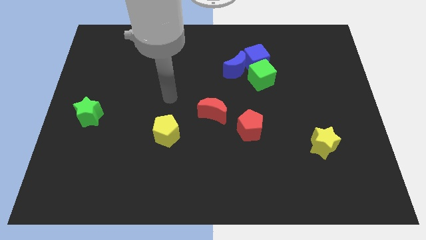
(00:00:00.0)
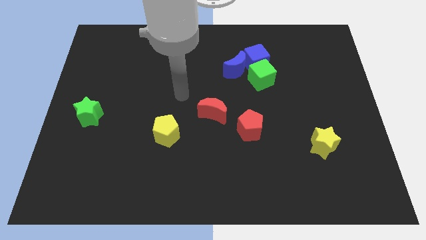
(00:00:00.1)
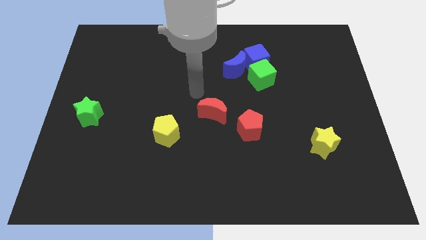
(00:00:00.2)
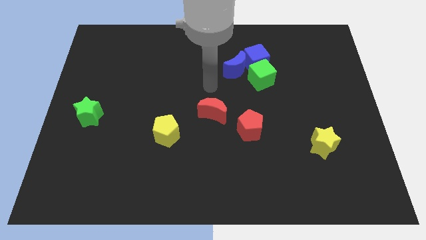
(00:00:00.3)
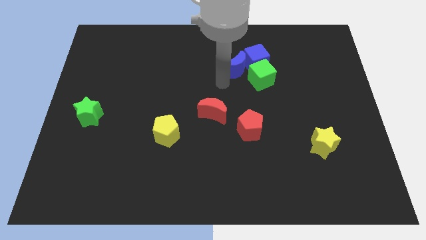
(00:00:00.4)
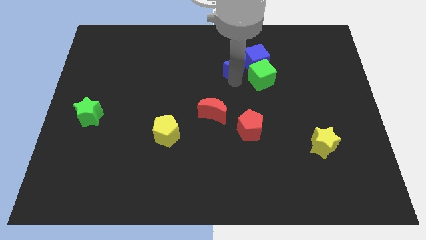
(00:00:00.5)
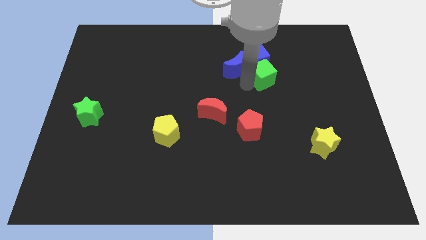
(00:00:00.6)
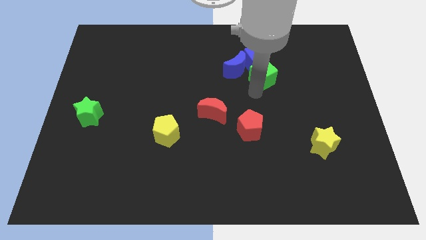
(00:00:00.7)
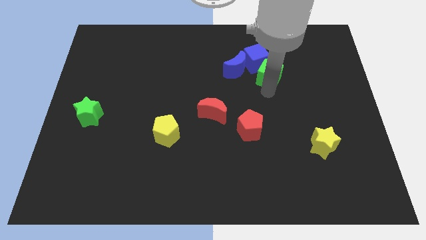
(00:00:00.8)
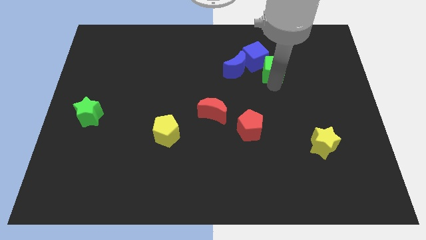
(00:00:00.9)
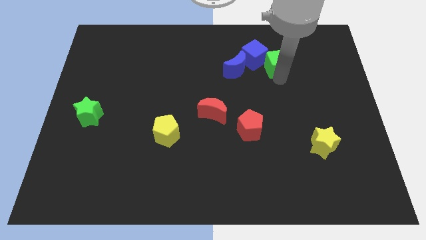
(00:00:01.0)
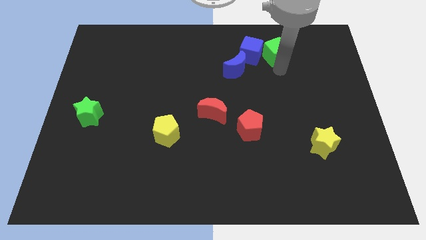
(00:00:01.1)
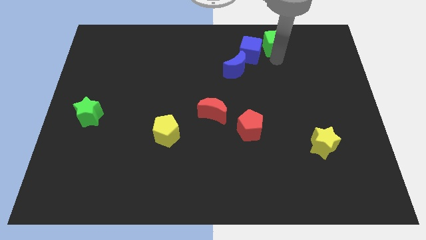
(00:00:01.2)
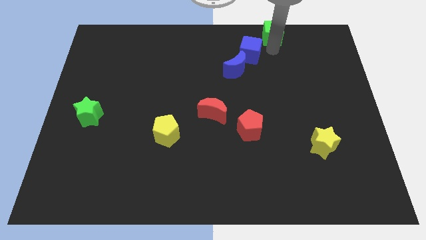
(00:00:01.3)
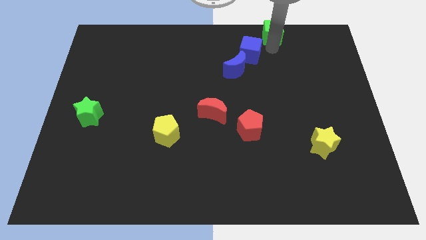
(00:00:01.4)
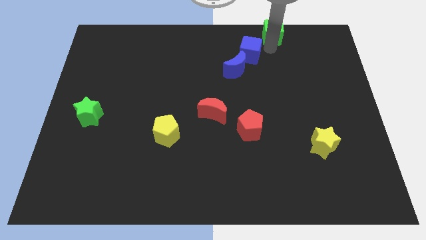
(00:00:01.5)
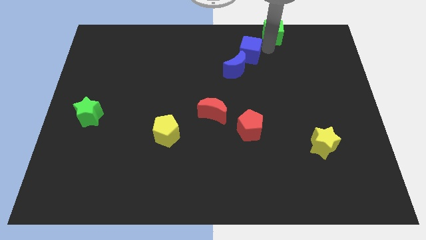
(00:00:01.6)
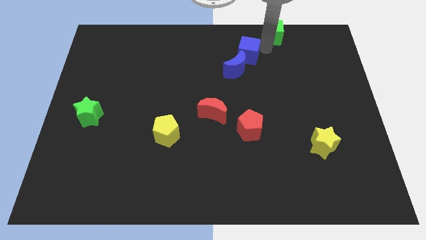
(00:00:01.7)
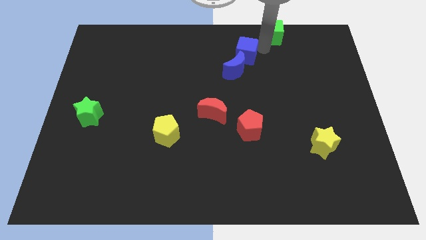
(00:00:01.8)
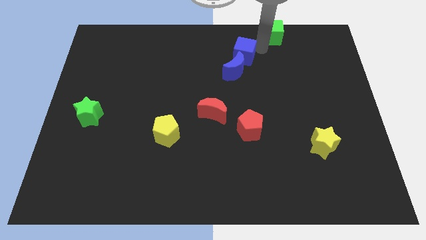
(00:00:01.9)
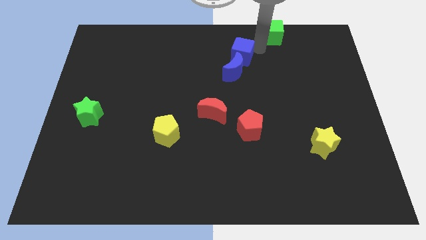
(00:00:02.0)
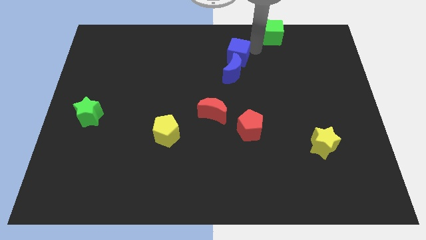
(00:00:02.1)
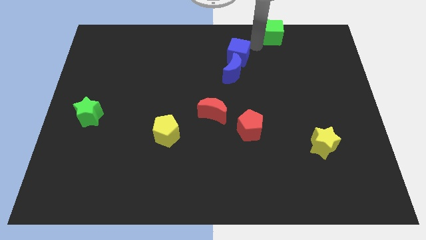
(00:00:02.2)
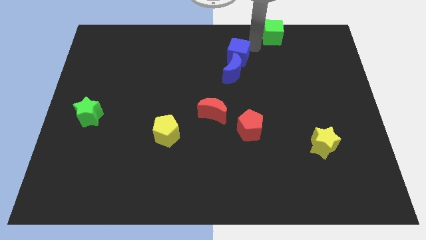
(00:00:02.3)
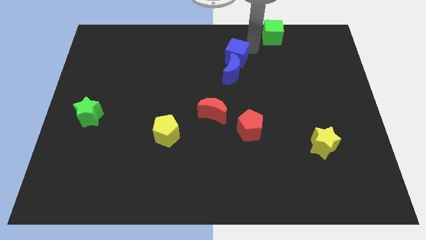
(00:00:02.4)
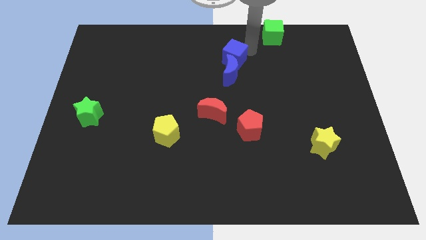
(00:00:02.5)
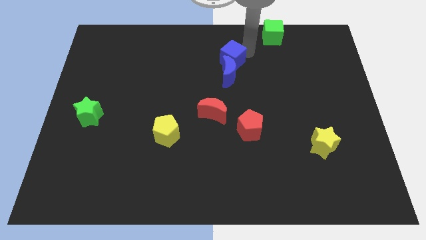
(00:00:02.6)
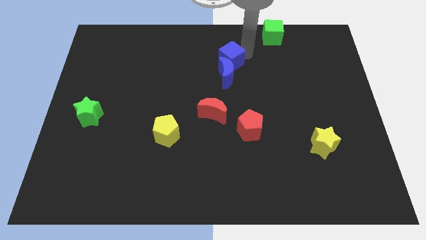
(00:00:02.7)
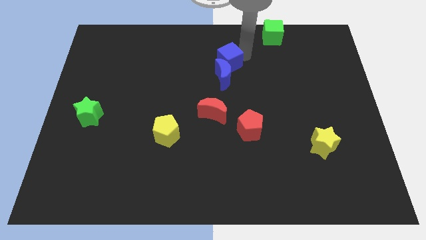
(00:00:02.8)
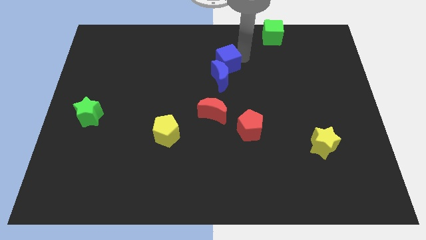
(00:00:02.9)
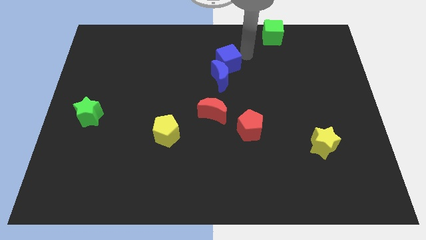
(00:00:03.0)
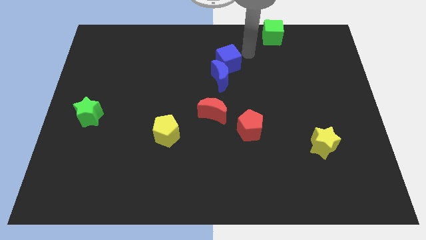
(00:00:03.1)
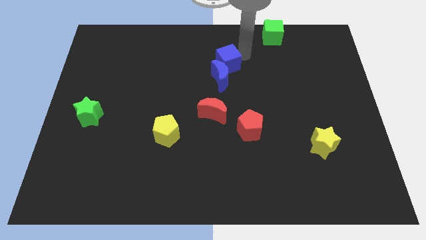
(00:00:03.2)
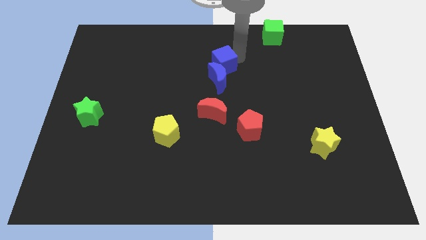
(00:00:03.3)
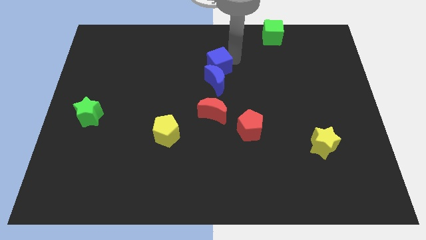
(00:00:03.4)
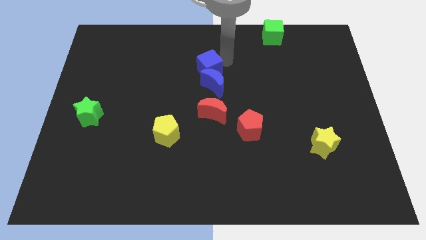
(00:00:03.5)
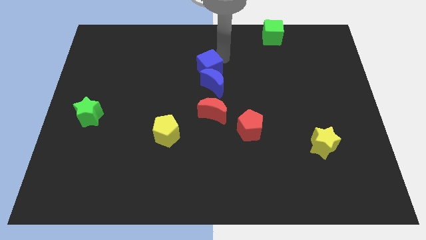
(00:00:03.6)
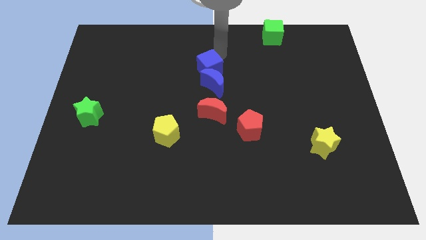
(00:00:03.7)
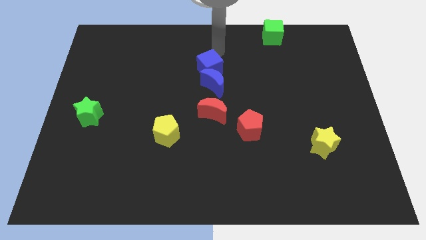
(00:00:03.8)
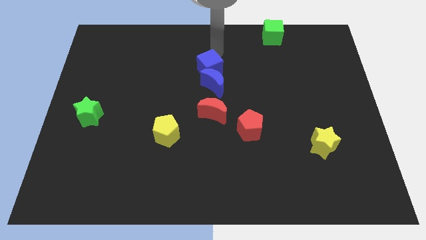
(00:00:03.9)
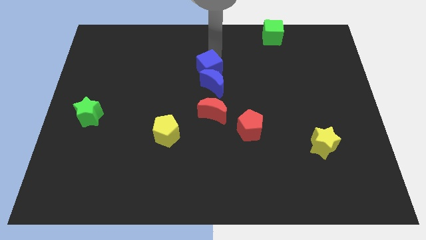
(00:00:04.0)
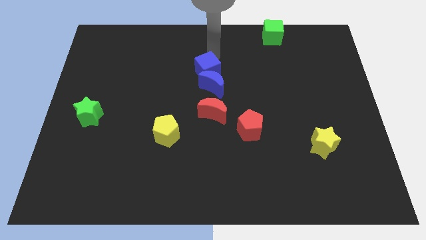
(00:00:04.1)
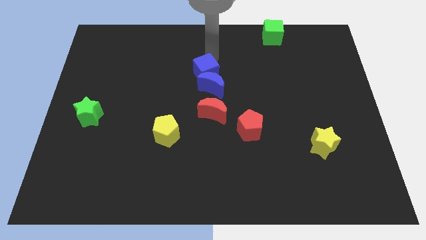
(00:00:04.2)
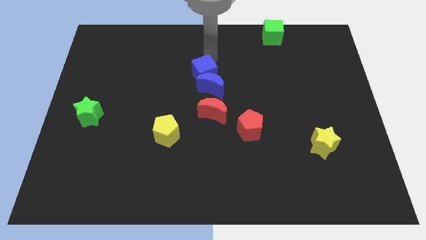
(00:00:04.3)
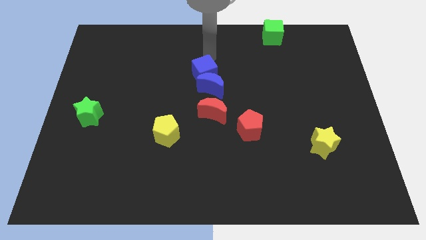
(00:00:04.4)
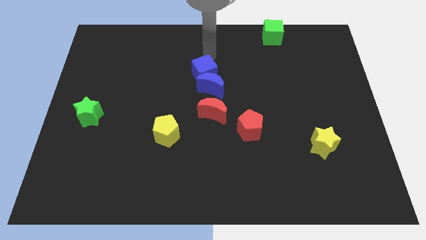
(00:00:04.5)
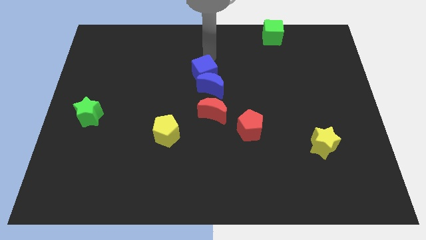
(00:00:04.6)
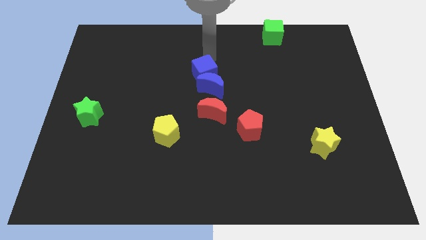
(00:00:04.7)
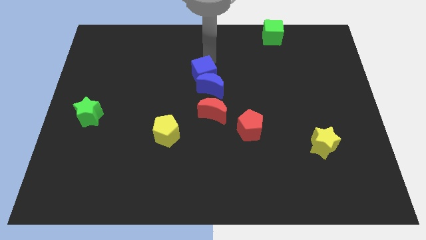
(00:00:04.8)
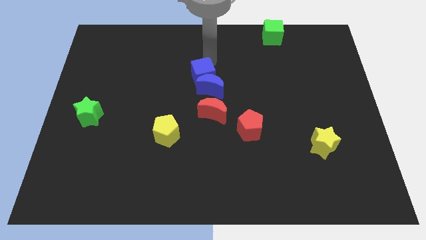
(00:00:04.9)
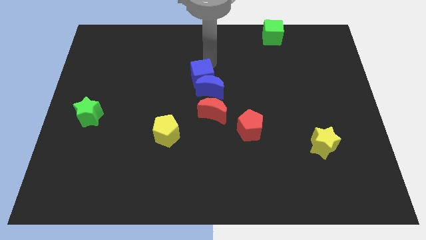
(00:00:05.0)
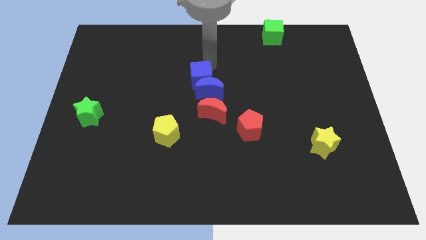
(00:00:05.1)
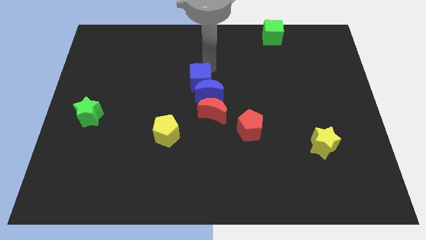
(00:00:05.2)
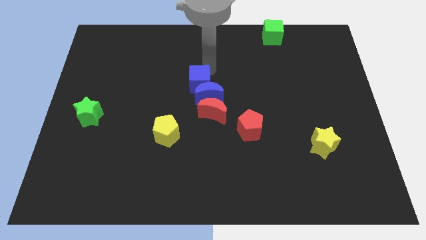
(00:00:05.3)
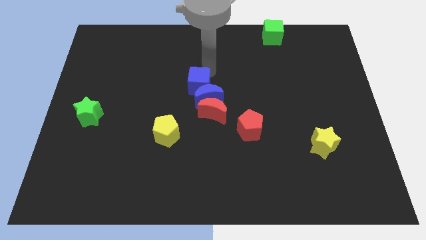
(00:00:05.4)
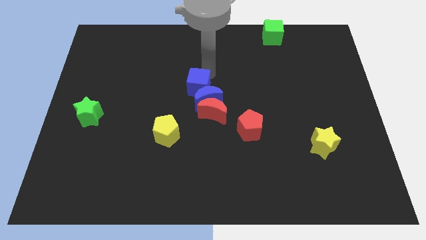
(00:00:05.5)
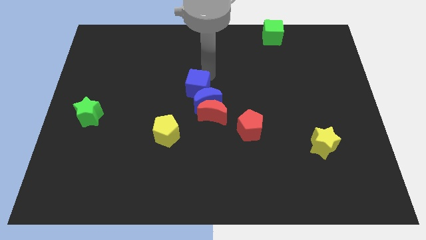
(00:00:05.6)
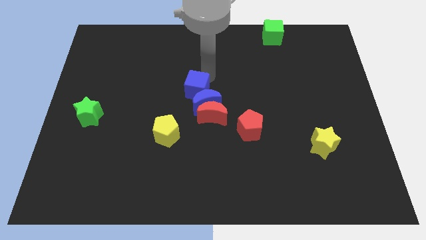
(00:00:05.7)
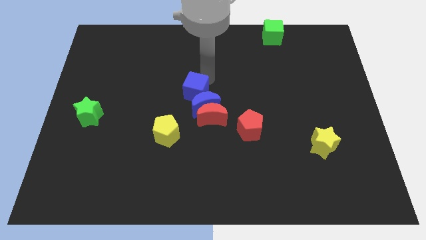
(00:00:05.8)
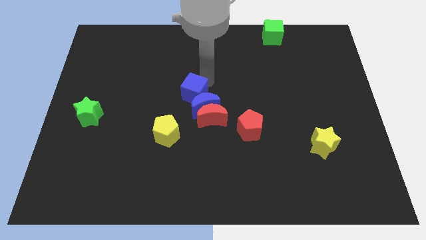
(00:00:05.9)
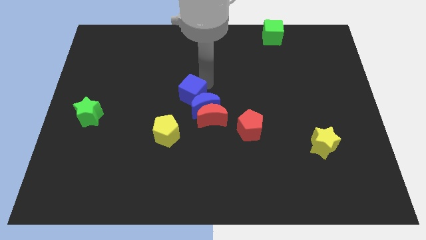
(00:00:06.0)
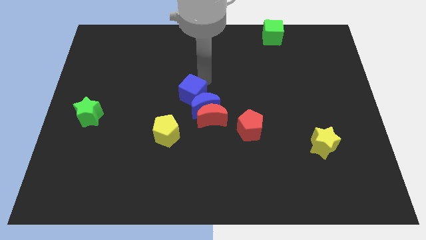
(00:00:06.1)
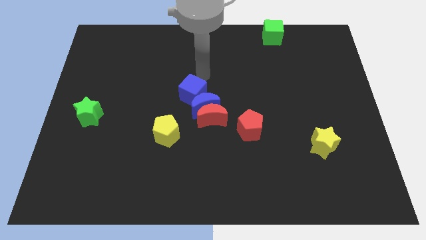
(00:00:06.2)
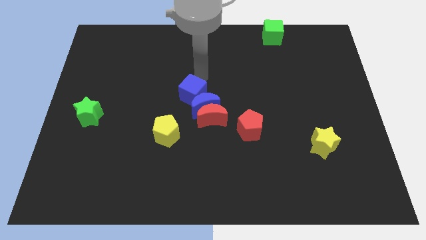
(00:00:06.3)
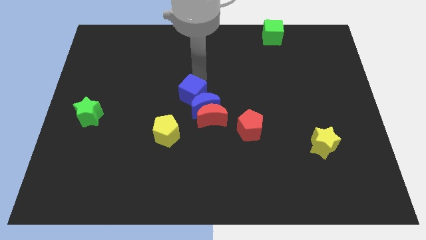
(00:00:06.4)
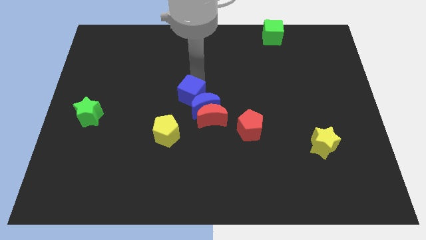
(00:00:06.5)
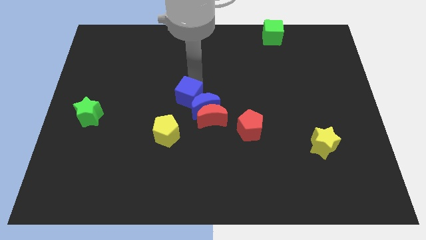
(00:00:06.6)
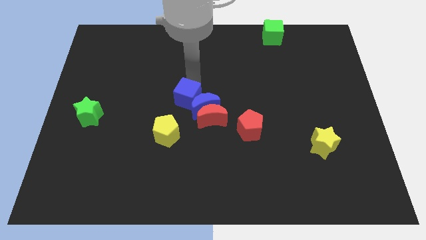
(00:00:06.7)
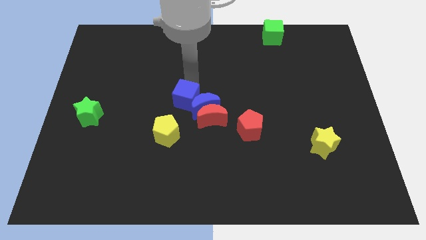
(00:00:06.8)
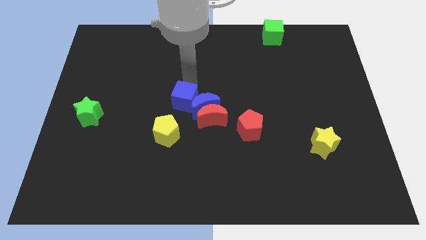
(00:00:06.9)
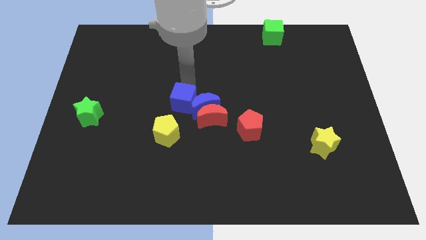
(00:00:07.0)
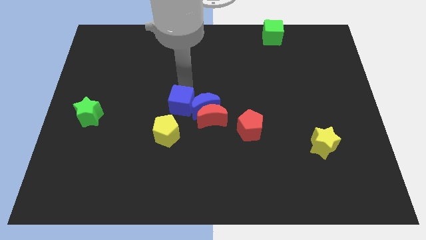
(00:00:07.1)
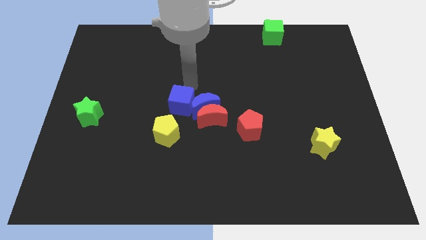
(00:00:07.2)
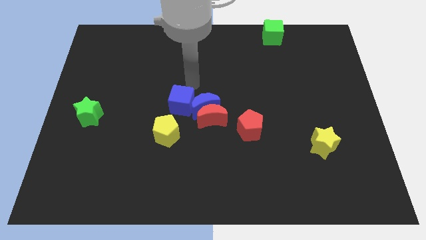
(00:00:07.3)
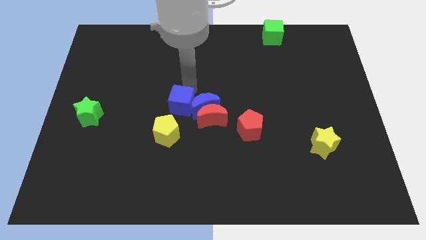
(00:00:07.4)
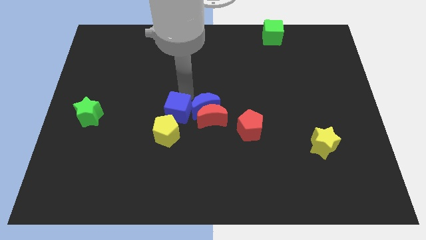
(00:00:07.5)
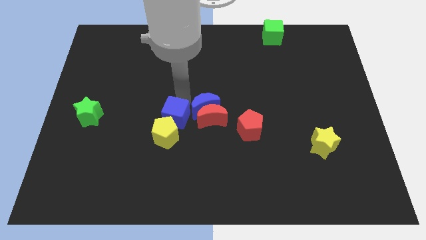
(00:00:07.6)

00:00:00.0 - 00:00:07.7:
push the blue cube towards the yellow pentagon
